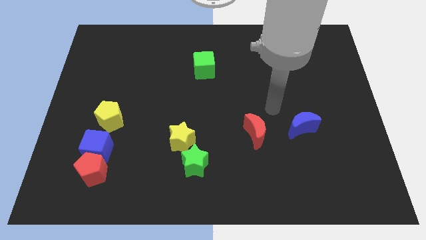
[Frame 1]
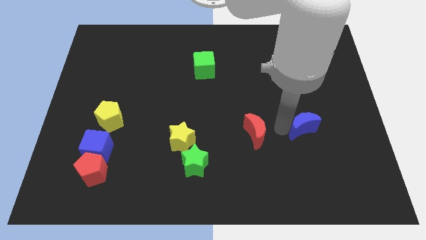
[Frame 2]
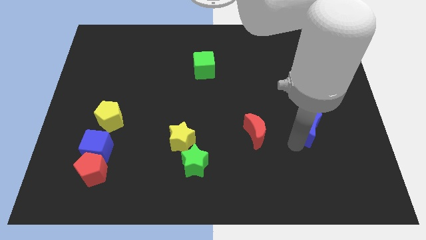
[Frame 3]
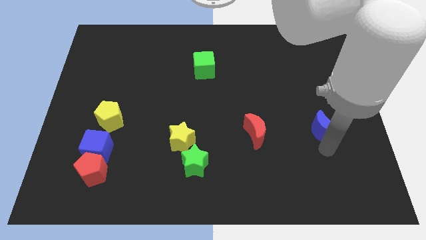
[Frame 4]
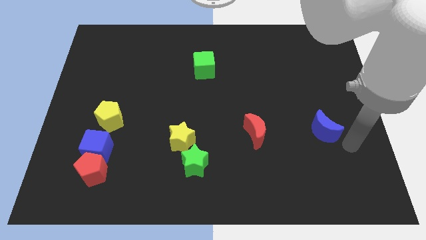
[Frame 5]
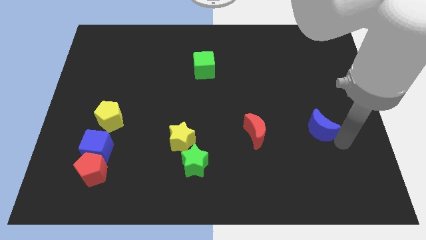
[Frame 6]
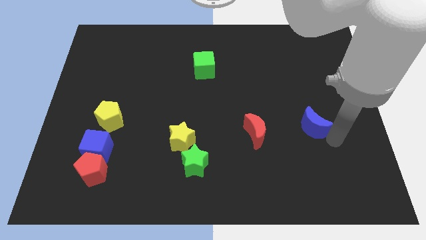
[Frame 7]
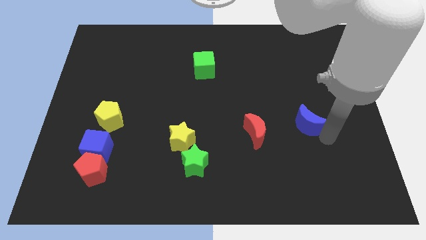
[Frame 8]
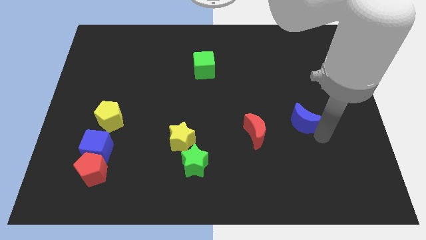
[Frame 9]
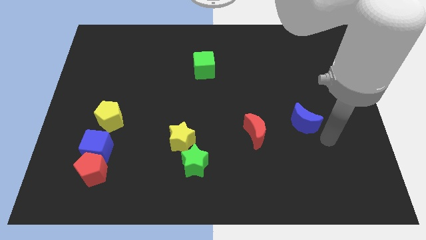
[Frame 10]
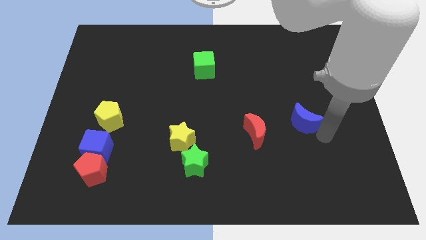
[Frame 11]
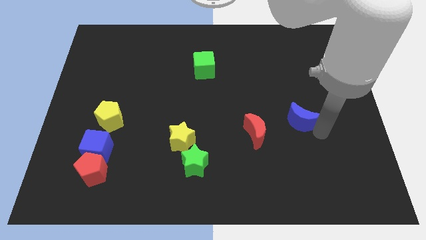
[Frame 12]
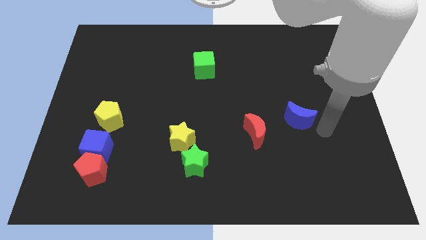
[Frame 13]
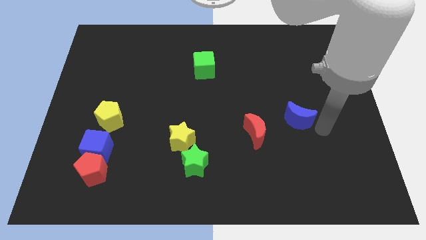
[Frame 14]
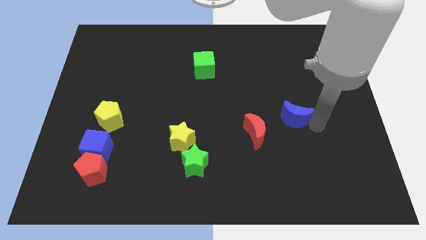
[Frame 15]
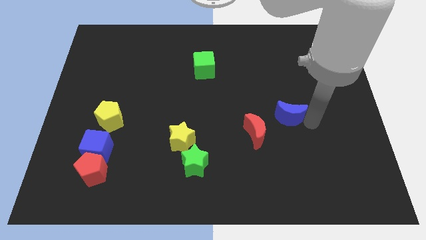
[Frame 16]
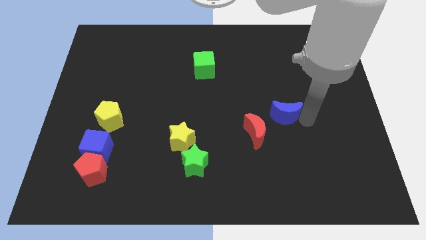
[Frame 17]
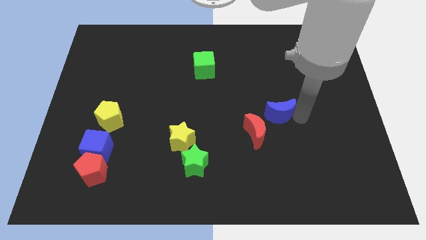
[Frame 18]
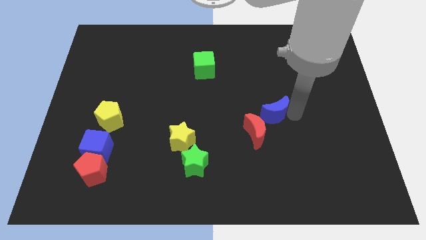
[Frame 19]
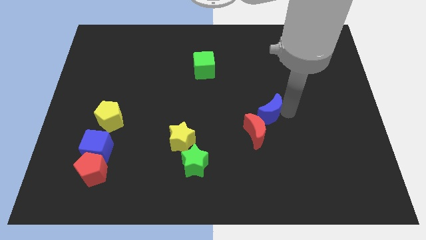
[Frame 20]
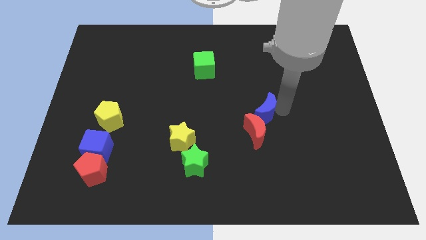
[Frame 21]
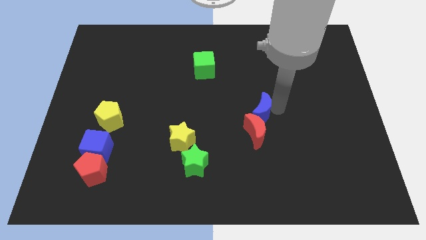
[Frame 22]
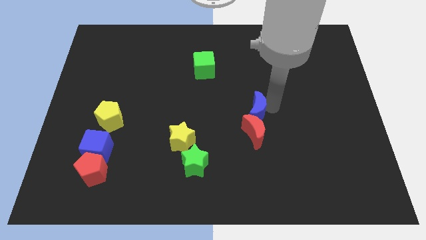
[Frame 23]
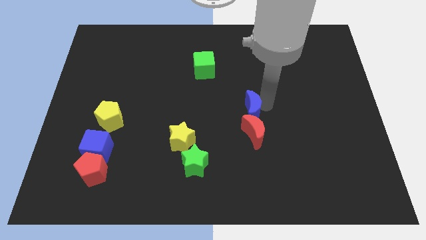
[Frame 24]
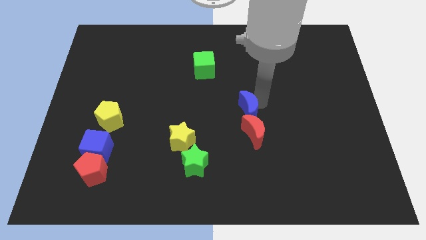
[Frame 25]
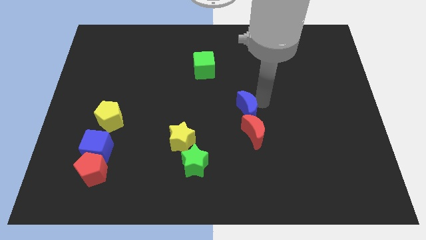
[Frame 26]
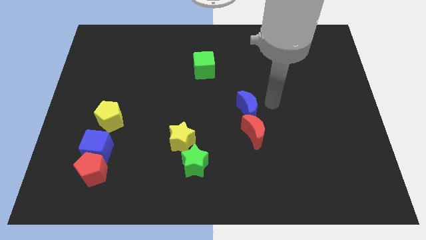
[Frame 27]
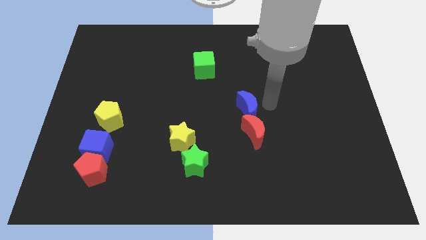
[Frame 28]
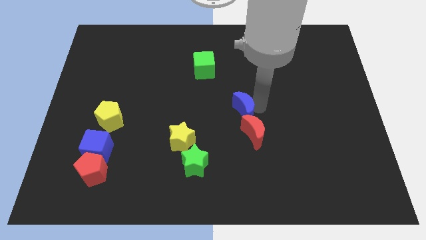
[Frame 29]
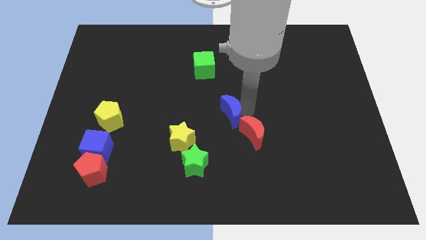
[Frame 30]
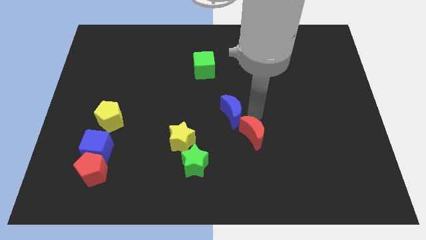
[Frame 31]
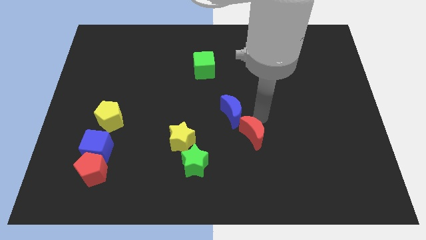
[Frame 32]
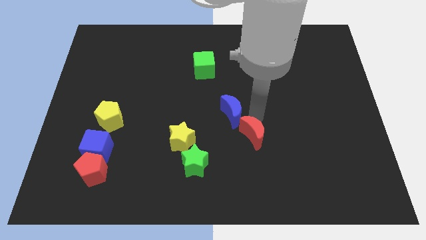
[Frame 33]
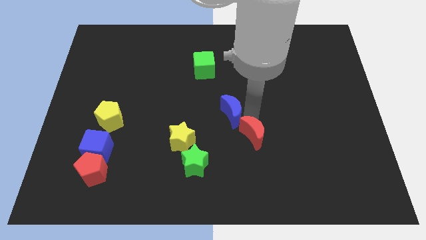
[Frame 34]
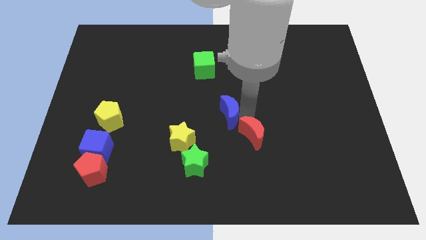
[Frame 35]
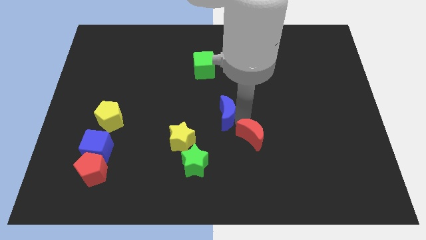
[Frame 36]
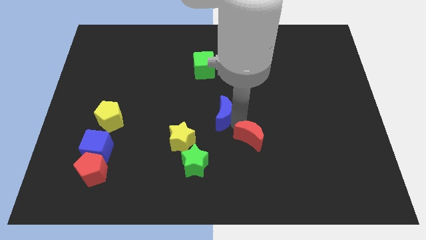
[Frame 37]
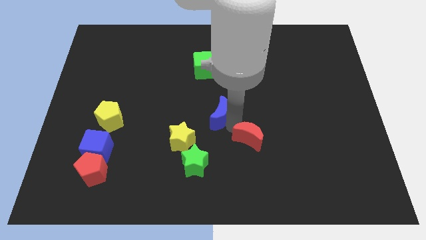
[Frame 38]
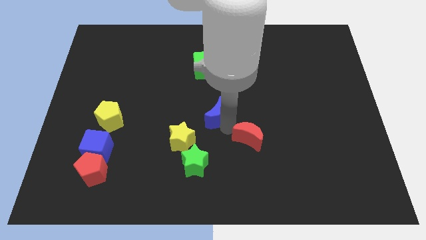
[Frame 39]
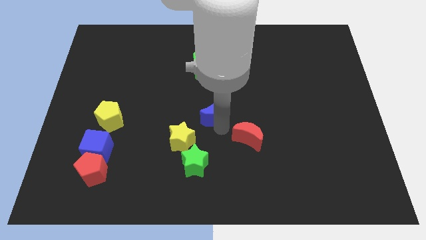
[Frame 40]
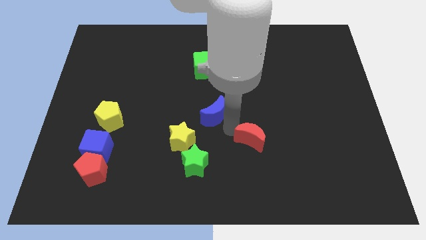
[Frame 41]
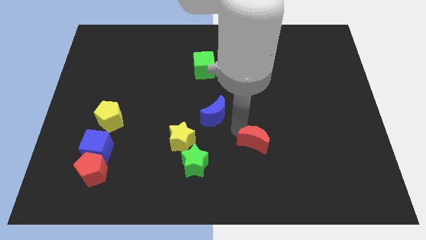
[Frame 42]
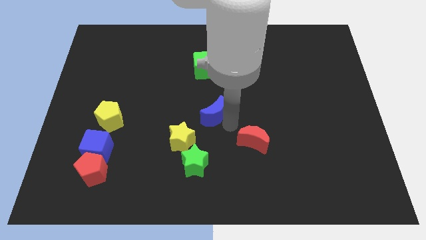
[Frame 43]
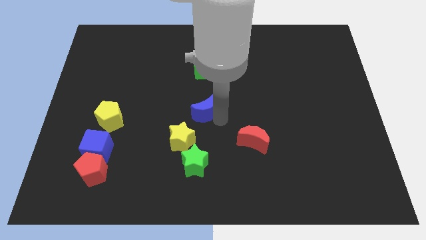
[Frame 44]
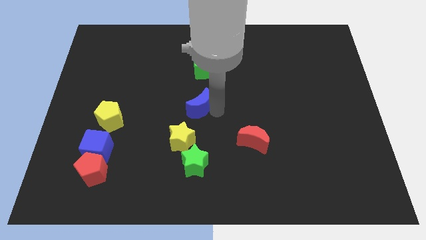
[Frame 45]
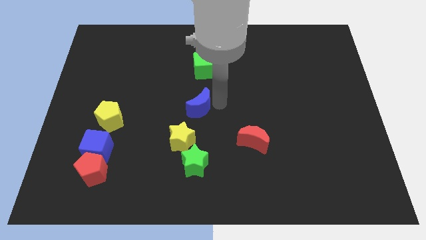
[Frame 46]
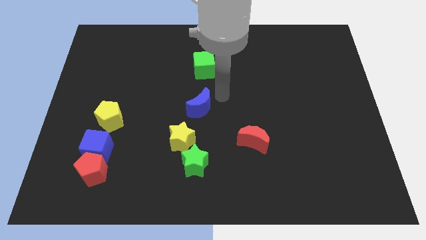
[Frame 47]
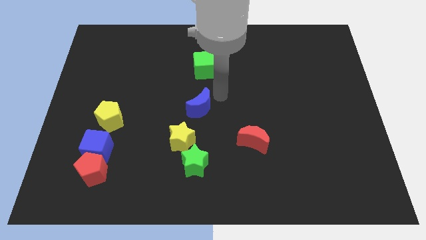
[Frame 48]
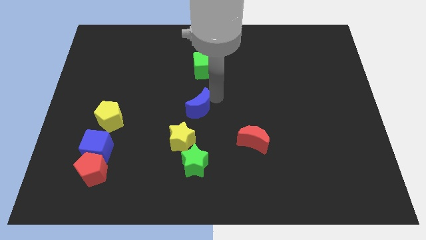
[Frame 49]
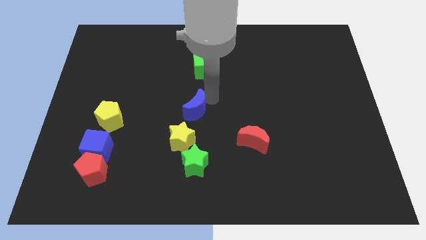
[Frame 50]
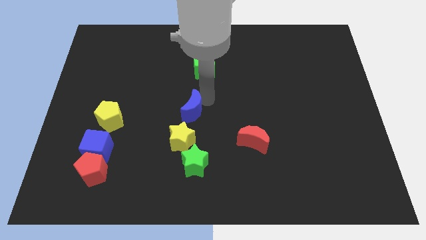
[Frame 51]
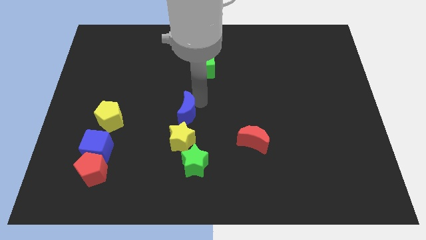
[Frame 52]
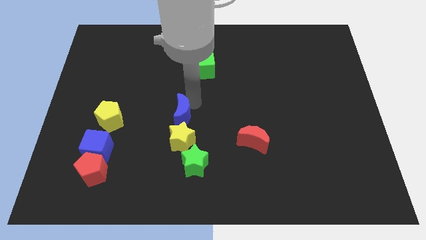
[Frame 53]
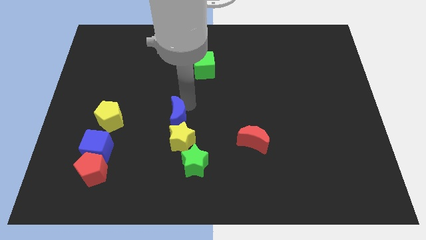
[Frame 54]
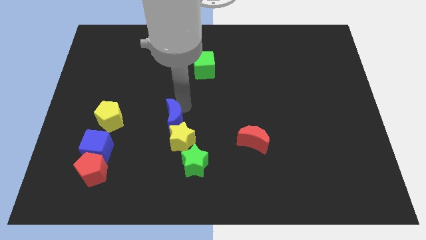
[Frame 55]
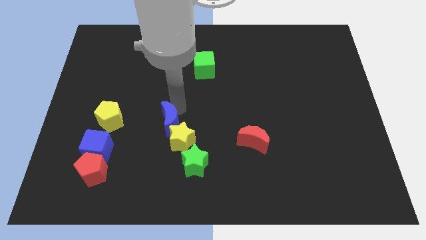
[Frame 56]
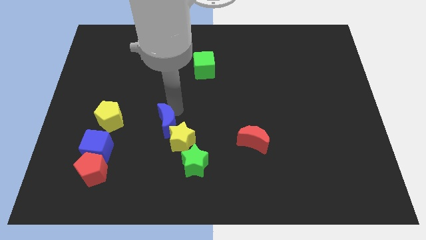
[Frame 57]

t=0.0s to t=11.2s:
put the blue moon to the top left side of the green star

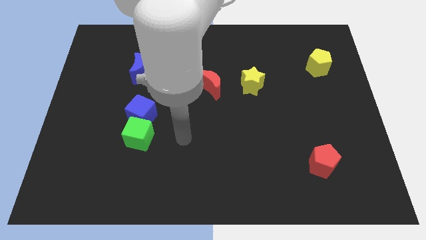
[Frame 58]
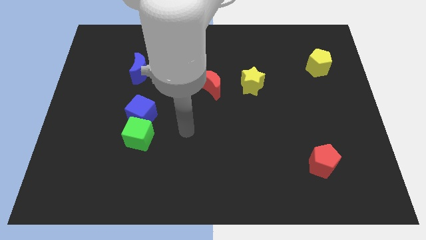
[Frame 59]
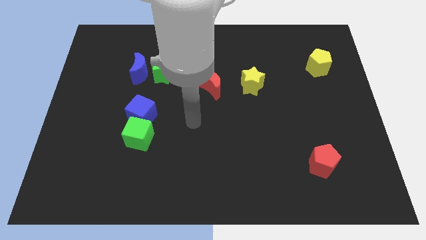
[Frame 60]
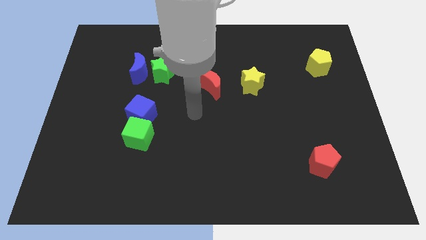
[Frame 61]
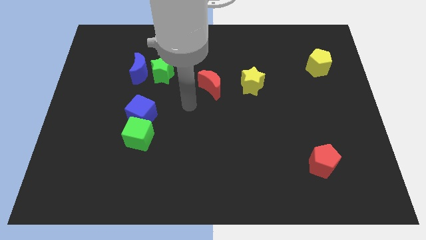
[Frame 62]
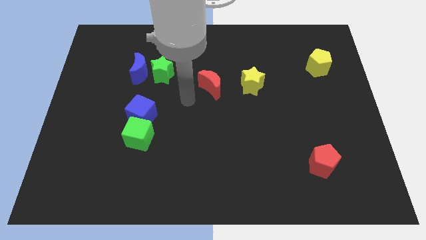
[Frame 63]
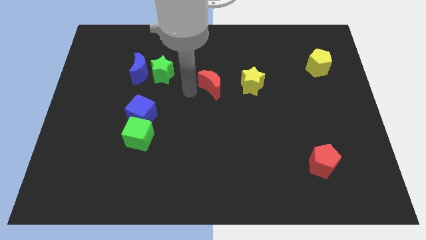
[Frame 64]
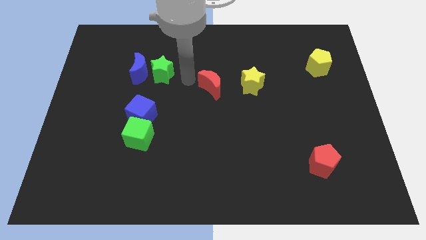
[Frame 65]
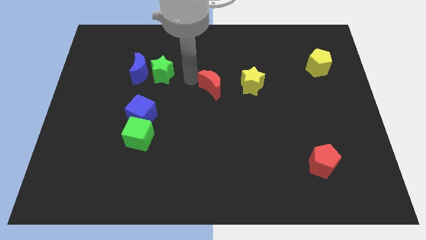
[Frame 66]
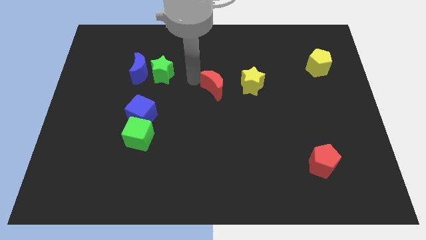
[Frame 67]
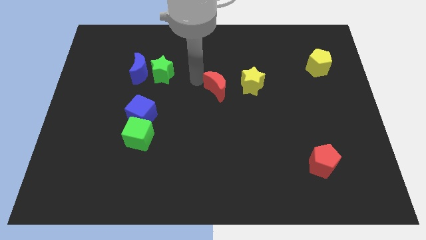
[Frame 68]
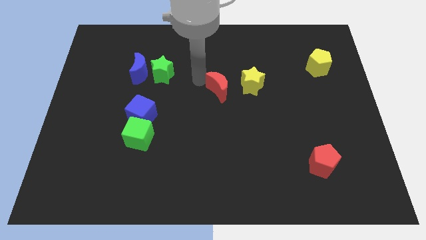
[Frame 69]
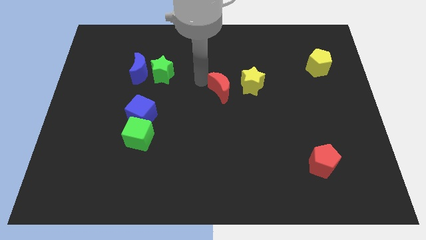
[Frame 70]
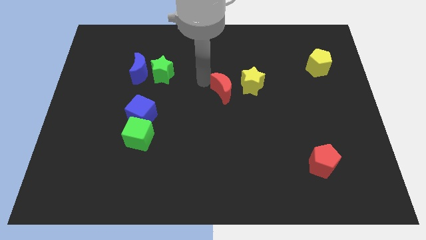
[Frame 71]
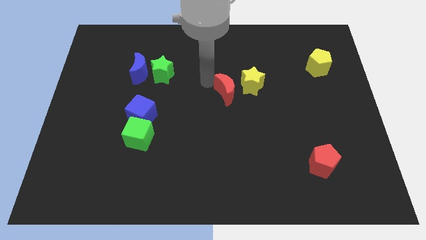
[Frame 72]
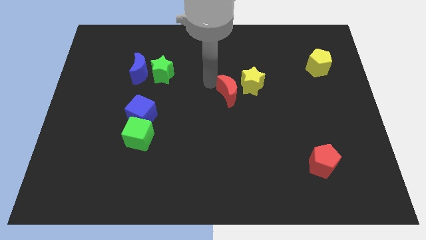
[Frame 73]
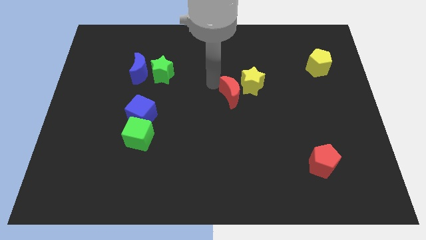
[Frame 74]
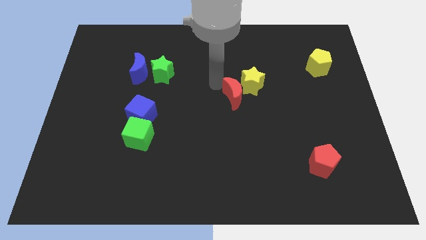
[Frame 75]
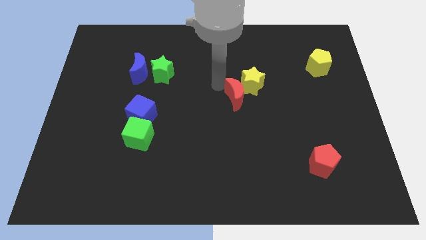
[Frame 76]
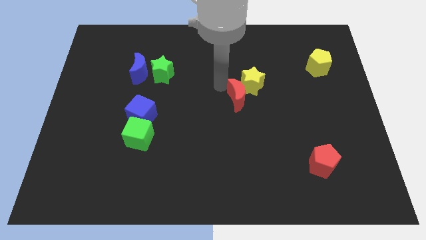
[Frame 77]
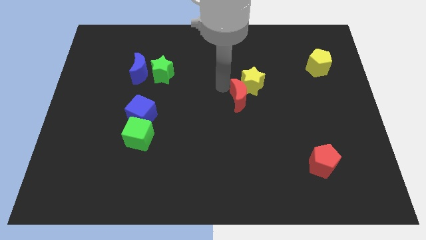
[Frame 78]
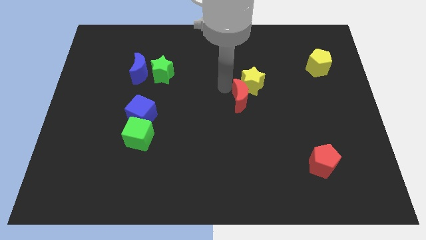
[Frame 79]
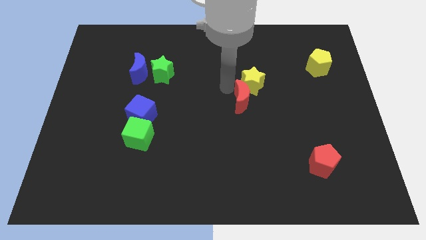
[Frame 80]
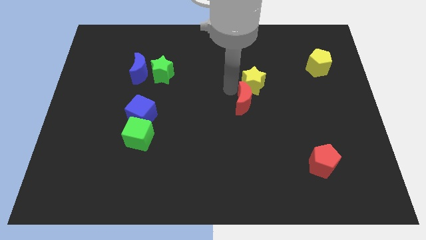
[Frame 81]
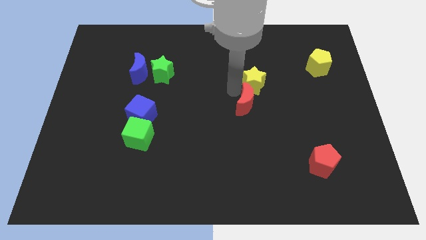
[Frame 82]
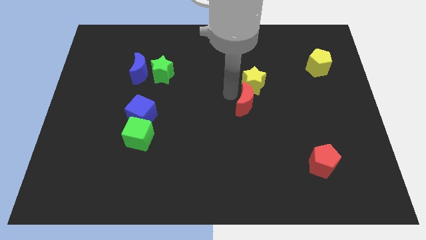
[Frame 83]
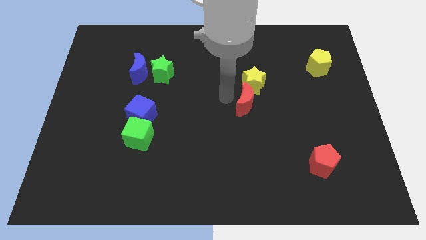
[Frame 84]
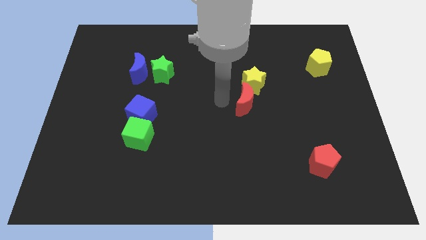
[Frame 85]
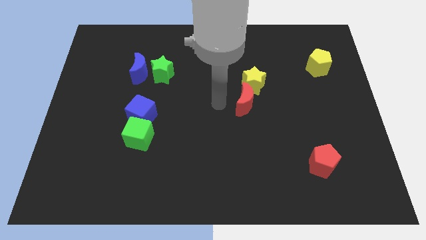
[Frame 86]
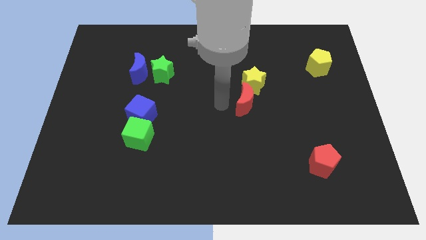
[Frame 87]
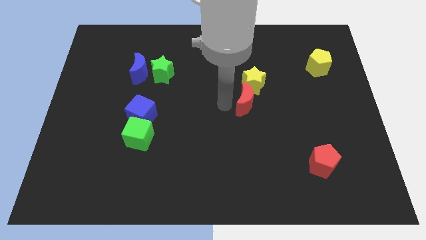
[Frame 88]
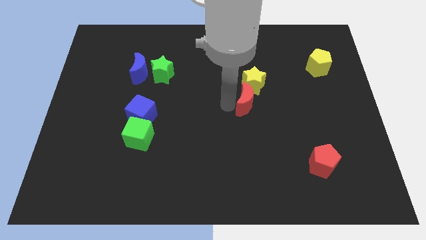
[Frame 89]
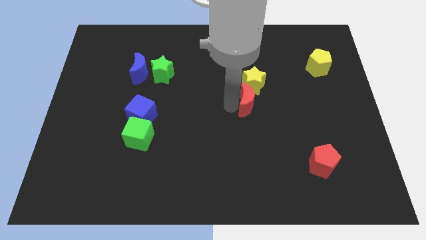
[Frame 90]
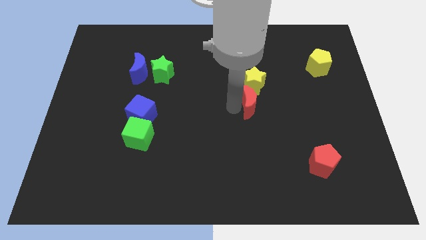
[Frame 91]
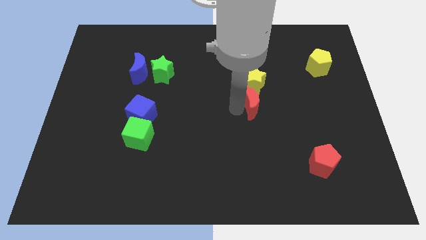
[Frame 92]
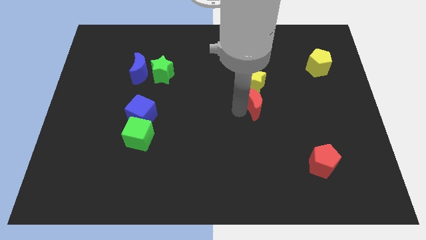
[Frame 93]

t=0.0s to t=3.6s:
move the red moon diagonally down and to the right of the yellow star
